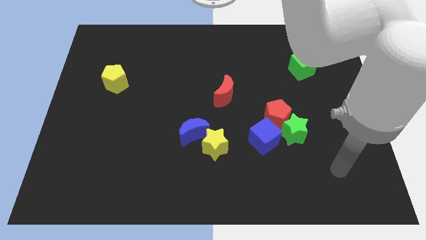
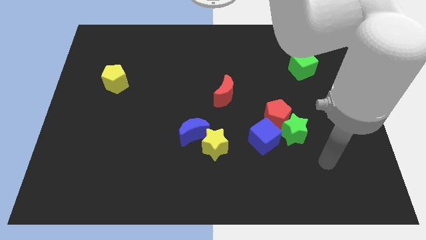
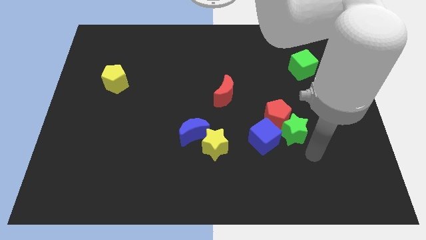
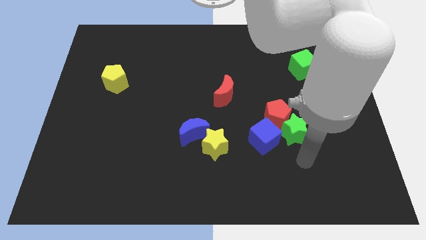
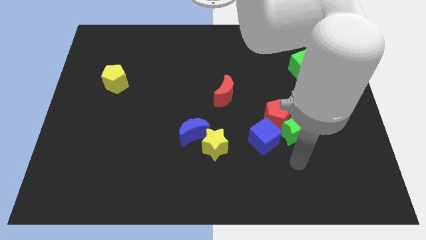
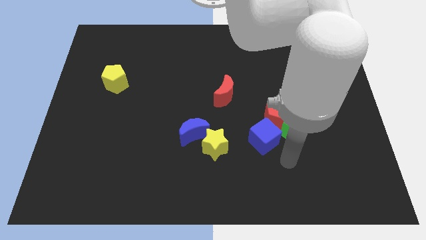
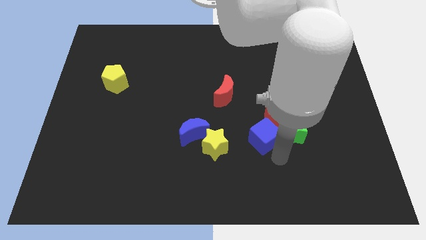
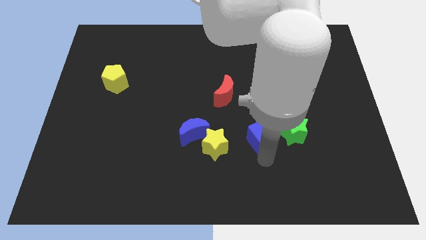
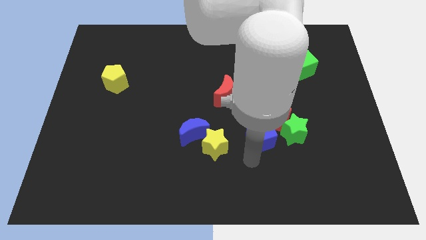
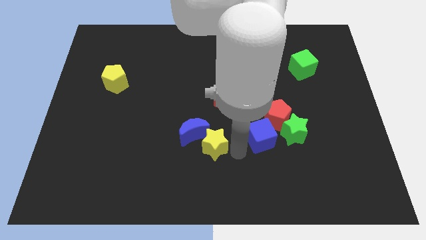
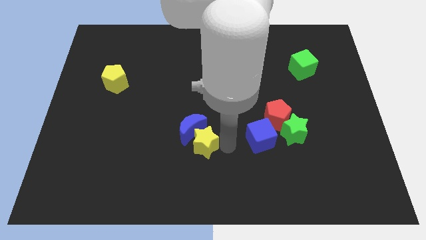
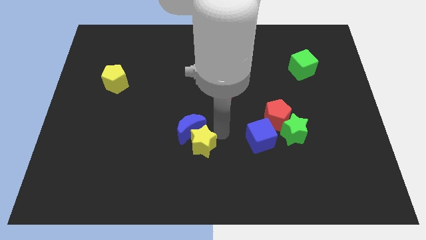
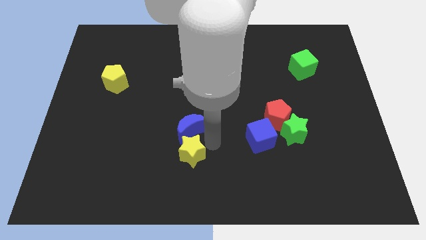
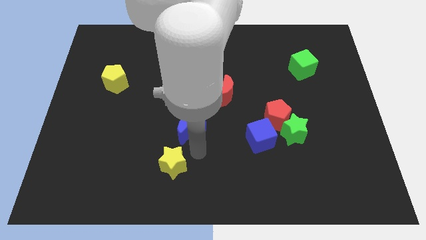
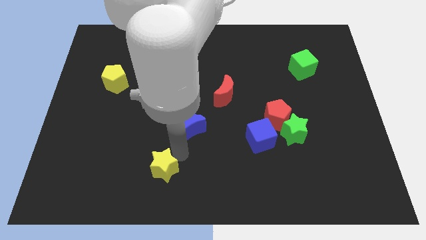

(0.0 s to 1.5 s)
separate the blue moon from the yellow star

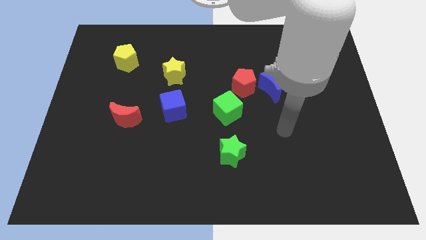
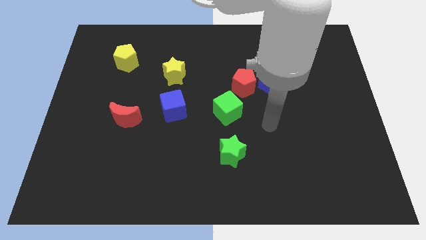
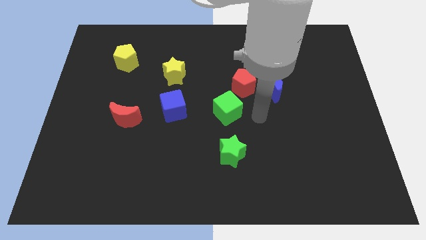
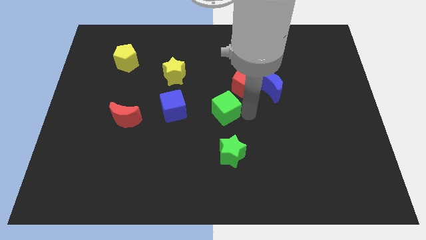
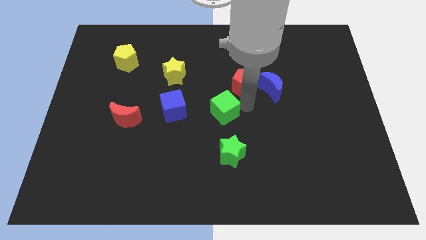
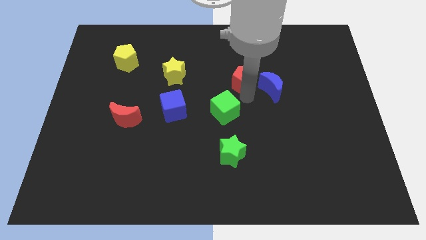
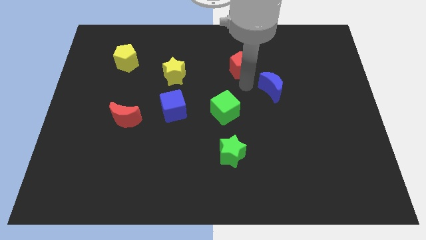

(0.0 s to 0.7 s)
separate the blue moon from the red pentagon

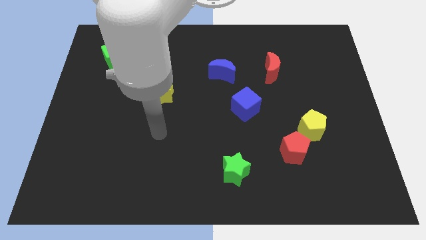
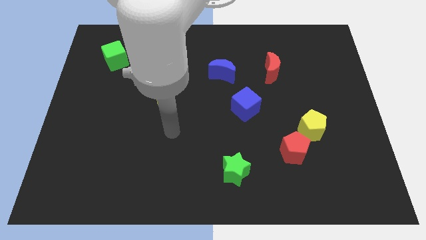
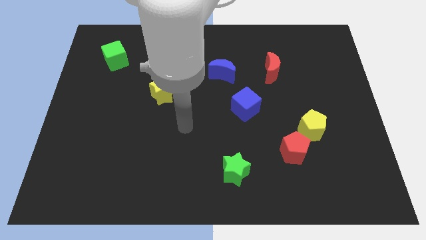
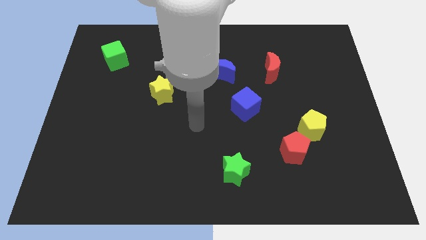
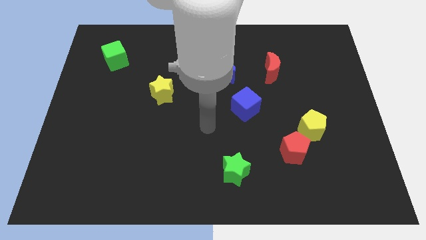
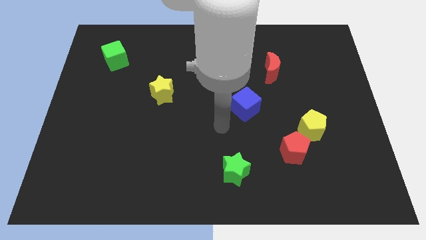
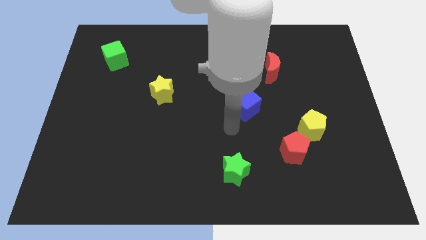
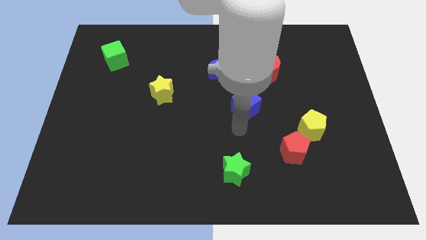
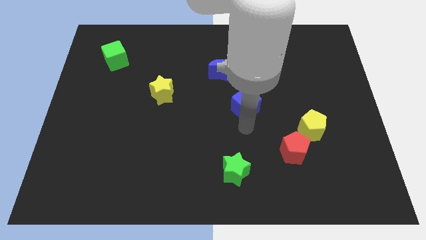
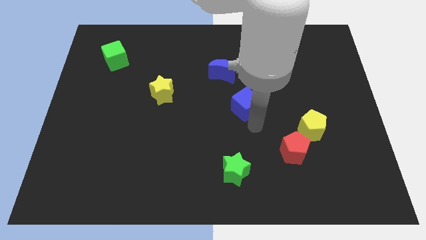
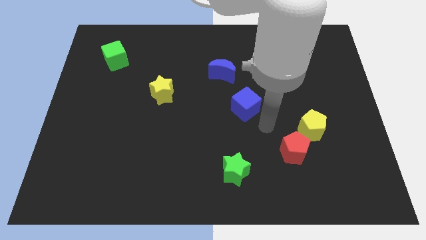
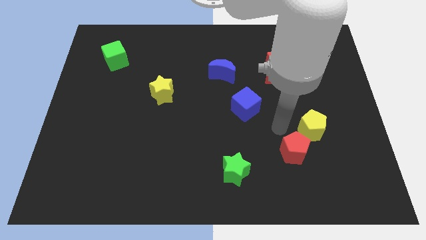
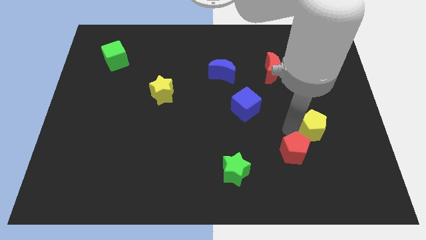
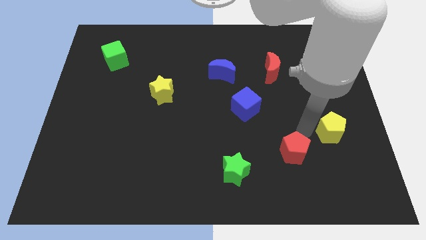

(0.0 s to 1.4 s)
move the red pentagon away from the yellow pentagon

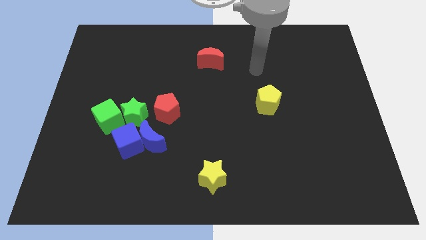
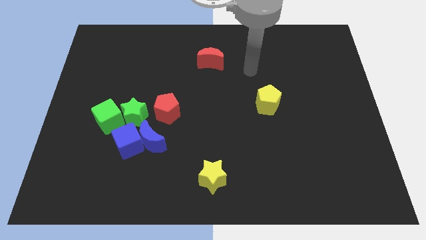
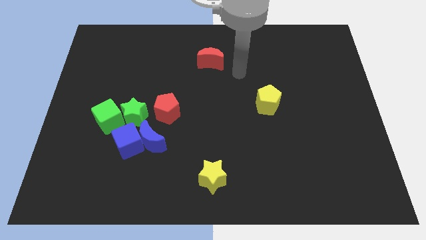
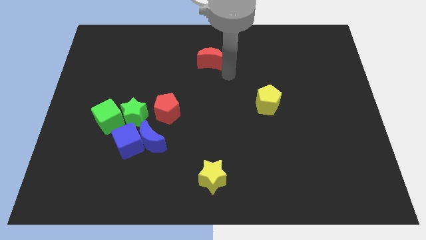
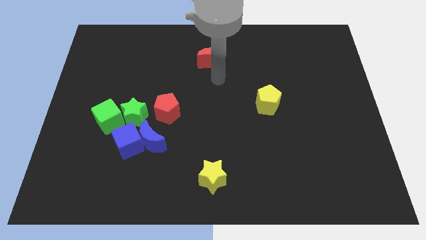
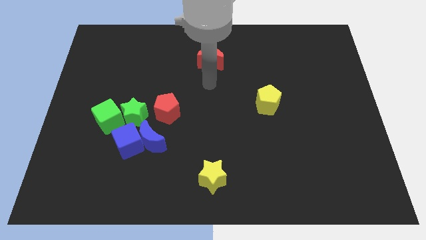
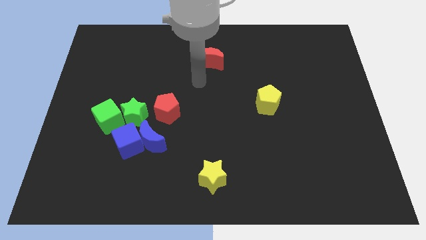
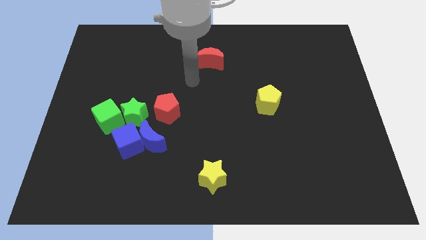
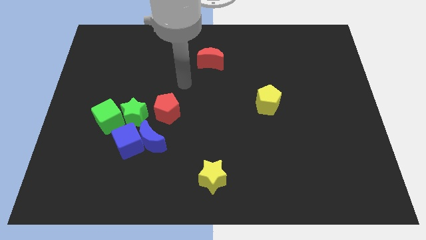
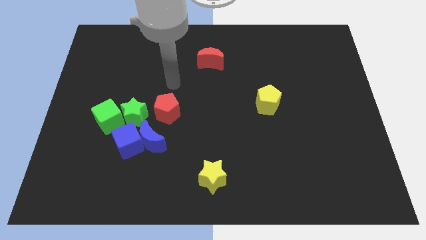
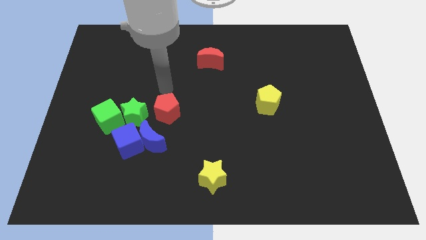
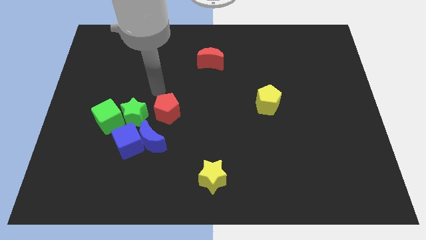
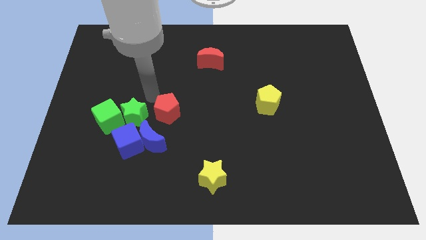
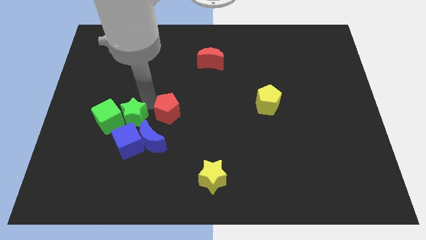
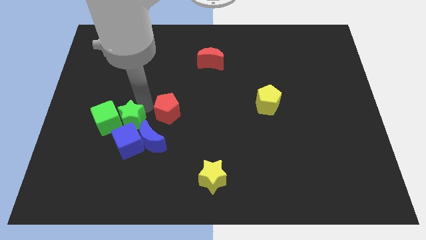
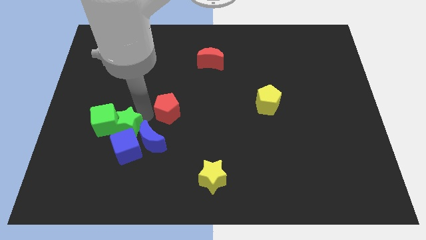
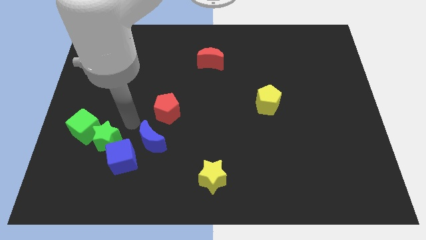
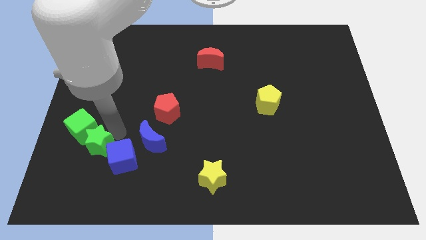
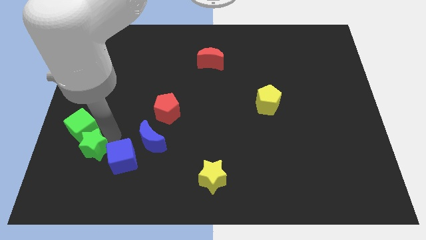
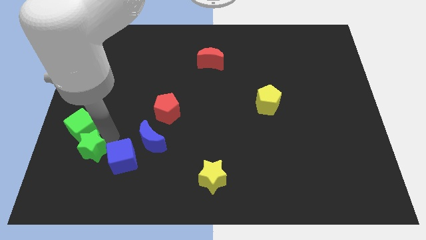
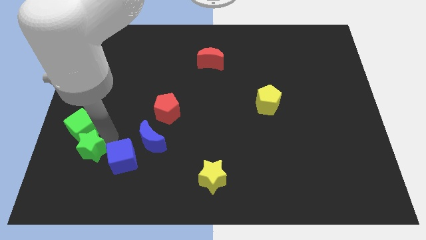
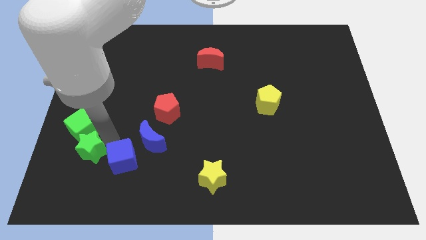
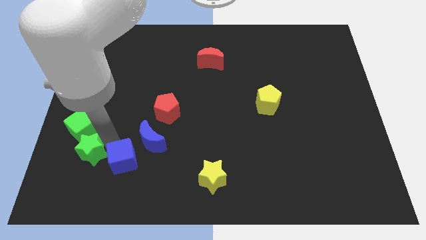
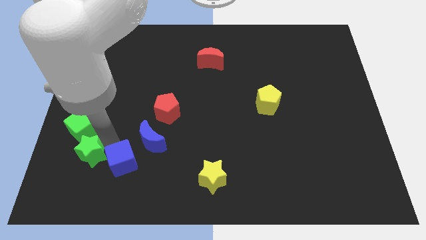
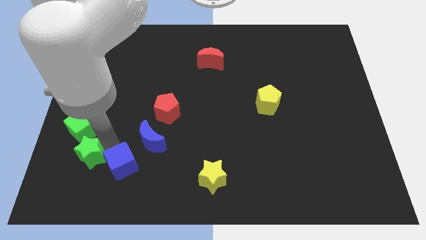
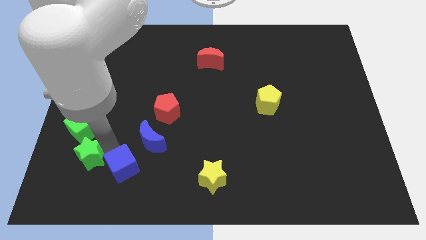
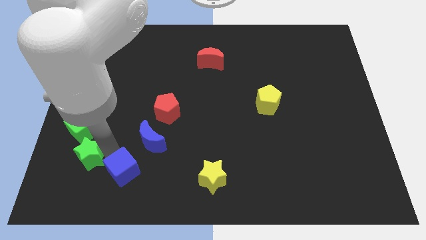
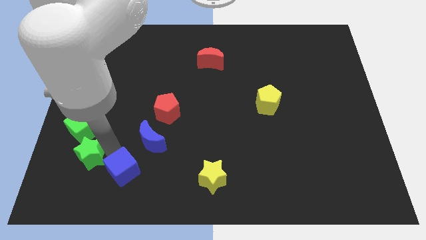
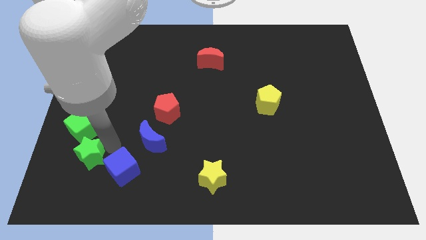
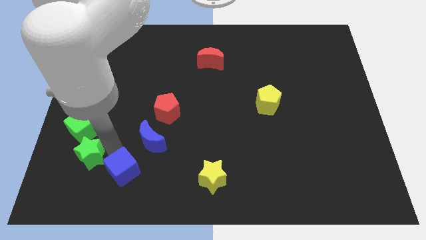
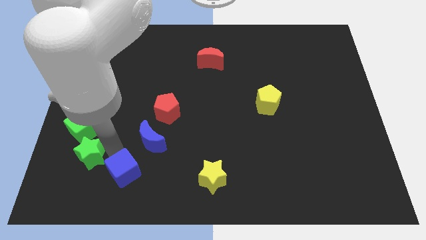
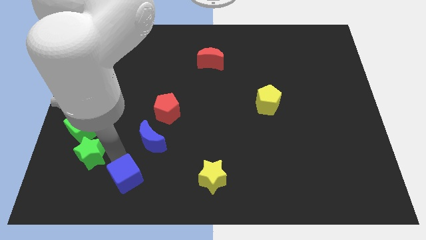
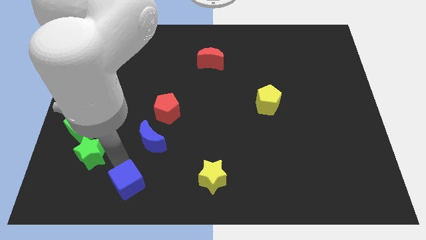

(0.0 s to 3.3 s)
separate the blue cube from the blue moon, green star, and green cube

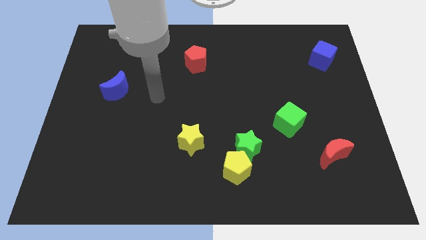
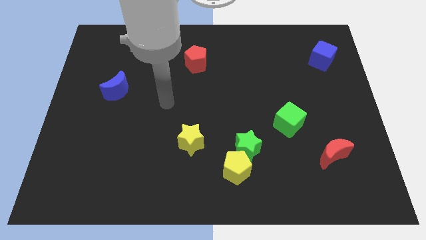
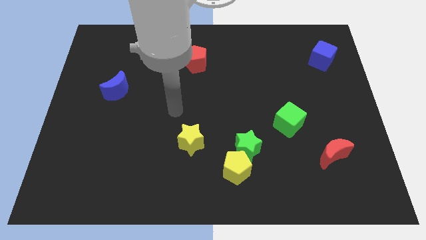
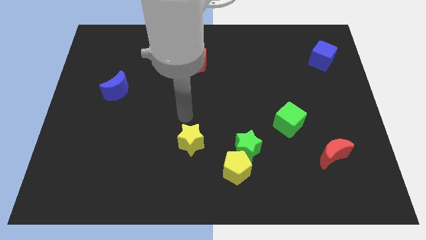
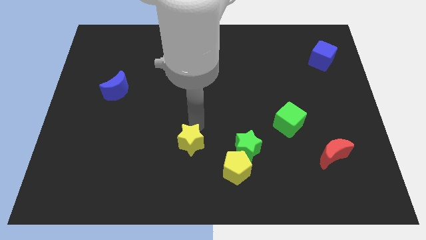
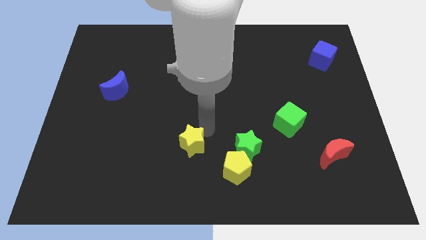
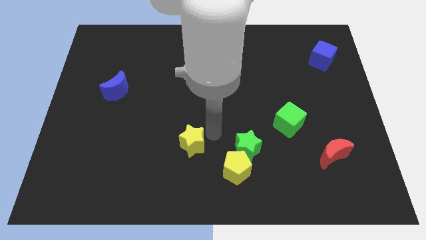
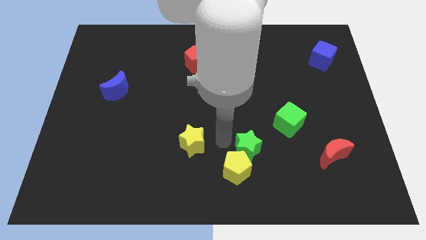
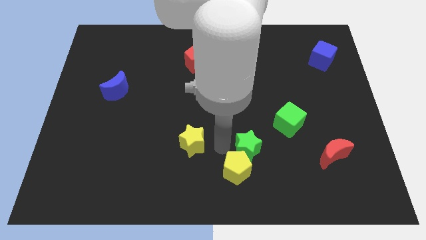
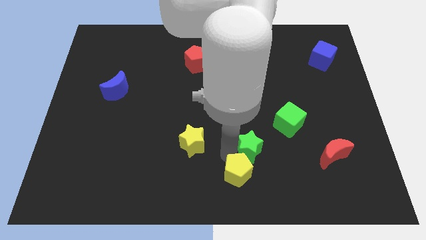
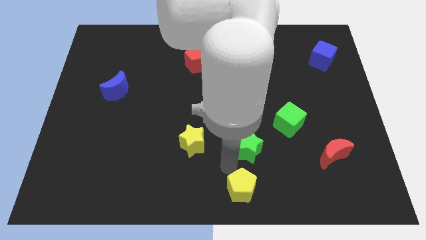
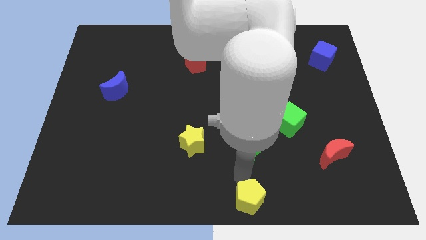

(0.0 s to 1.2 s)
move the green star away from the yellow pentagon

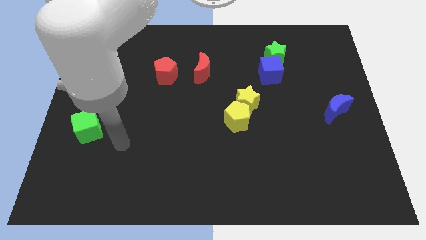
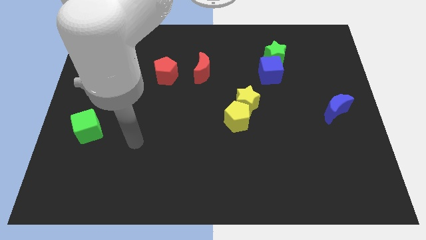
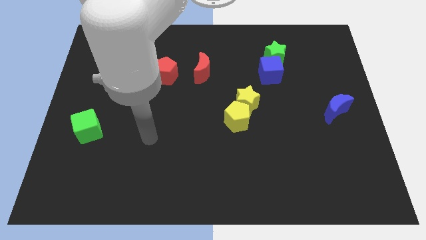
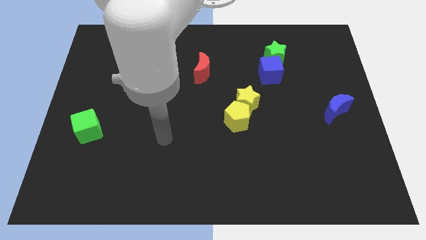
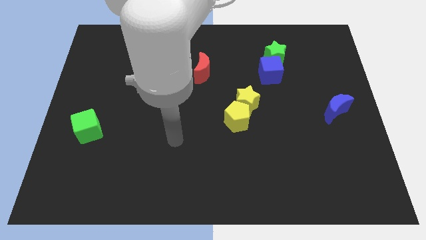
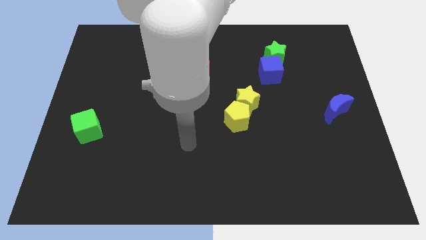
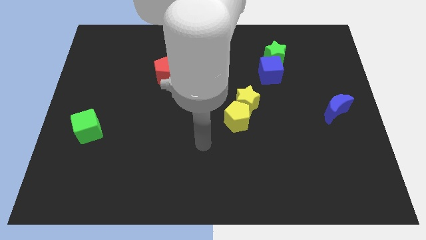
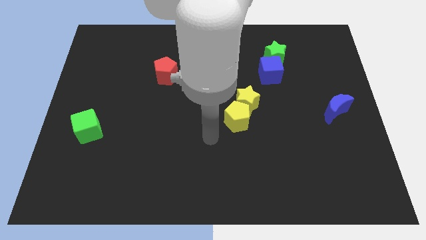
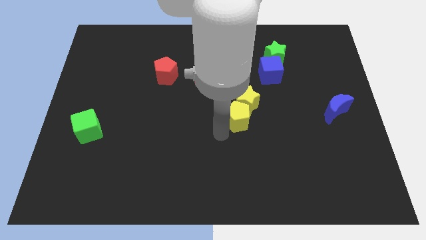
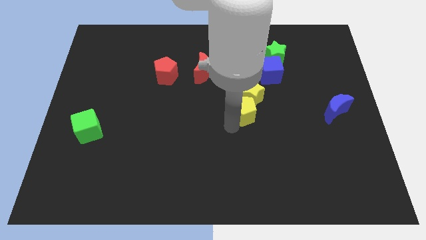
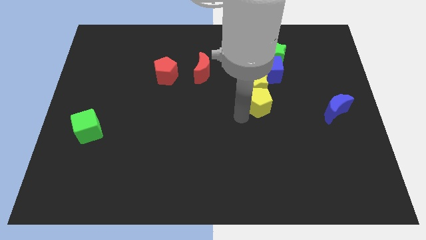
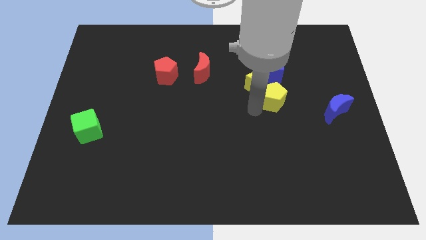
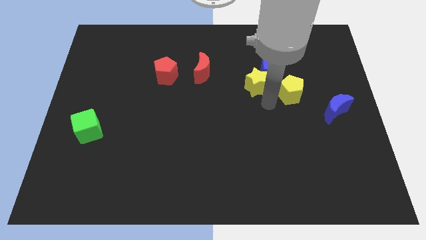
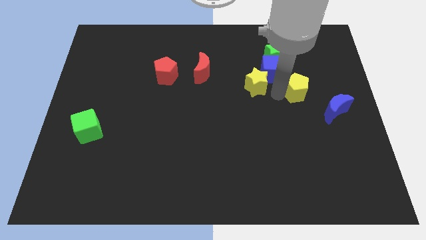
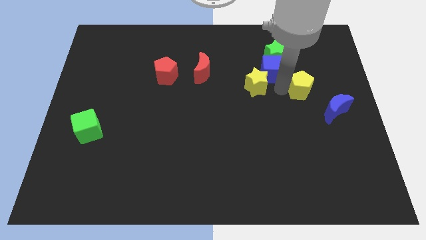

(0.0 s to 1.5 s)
move the yellow star away from the yellow pentagon
